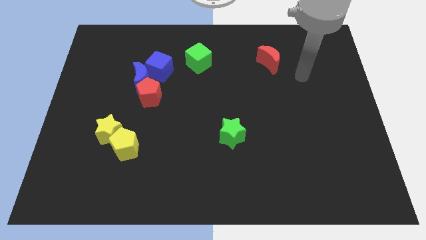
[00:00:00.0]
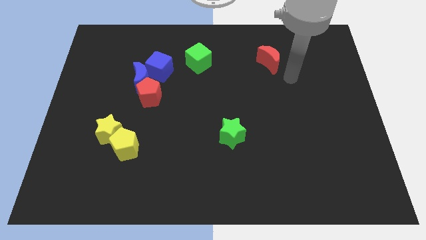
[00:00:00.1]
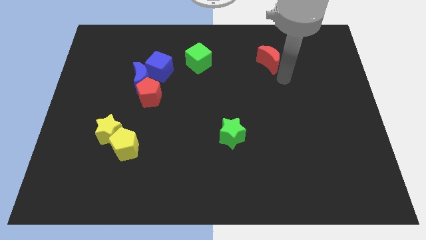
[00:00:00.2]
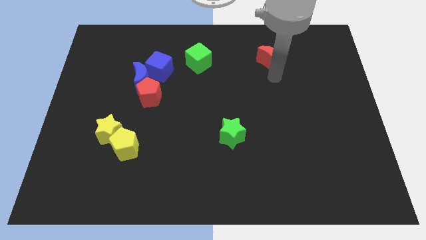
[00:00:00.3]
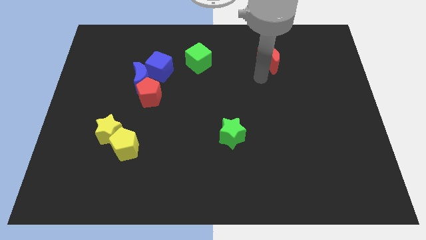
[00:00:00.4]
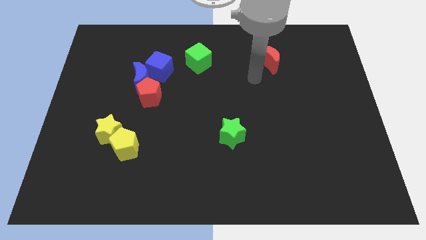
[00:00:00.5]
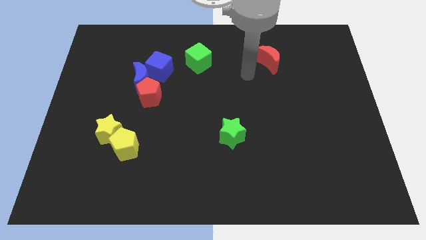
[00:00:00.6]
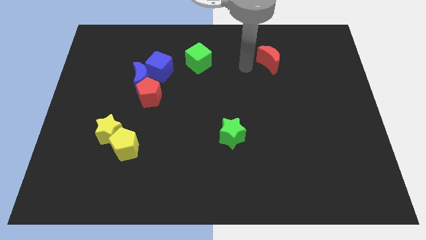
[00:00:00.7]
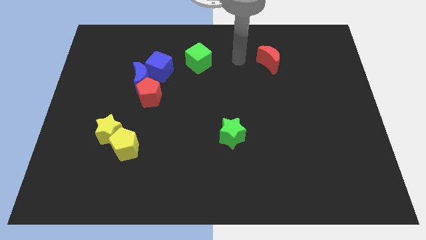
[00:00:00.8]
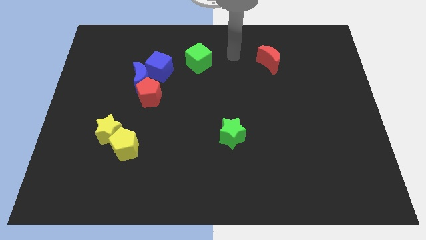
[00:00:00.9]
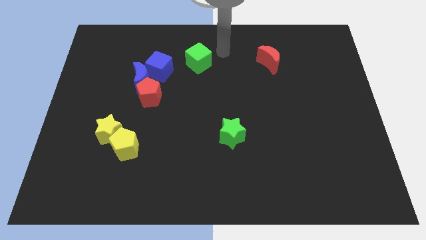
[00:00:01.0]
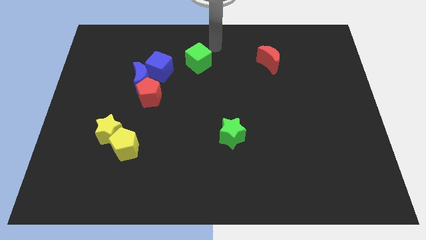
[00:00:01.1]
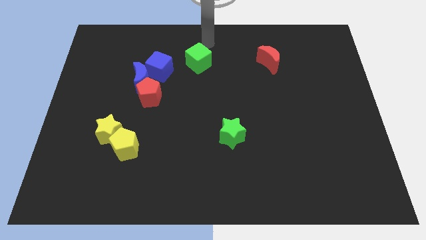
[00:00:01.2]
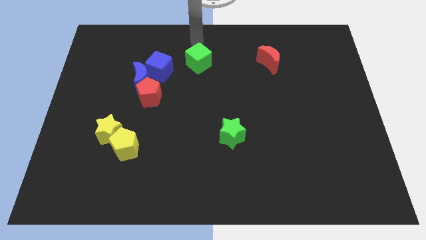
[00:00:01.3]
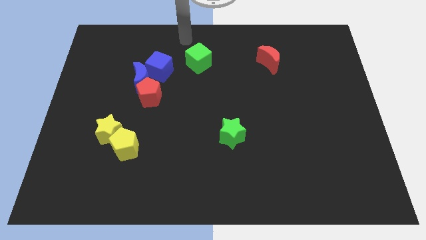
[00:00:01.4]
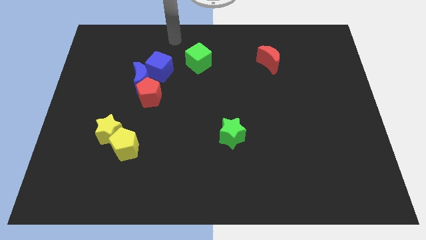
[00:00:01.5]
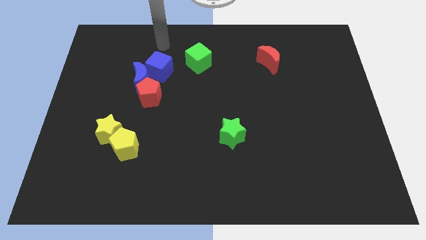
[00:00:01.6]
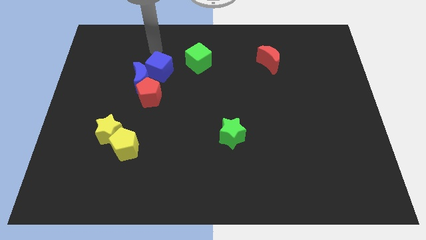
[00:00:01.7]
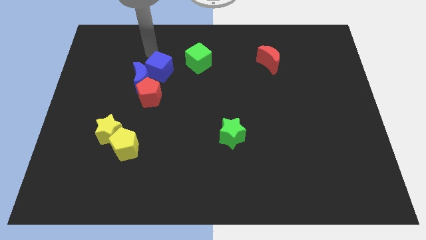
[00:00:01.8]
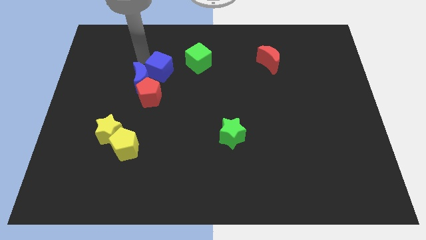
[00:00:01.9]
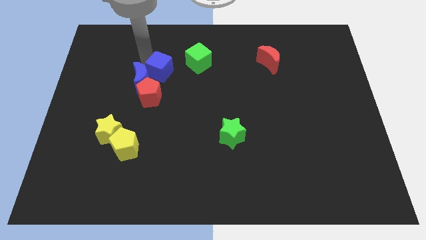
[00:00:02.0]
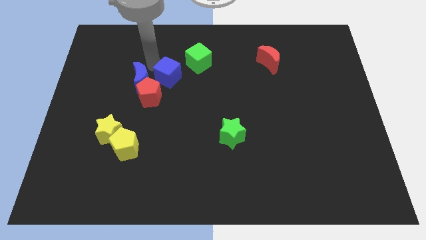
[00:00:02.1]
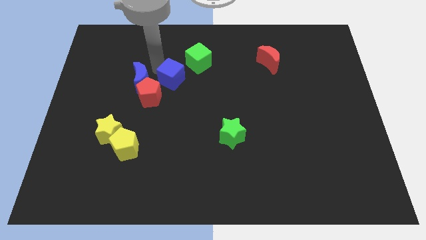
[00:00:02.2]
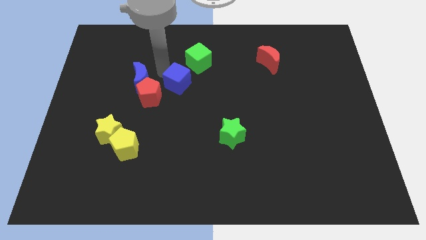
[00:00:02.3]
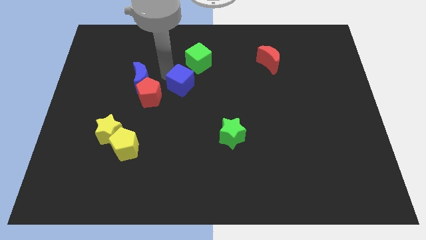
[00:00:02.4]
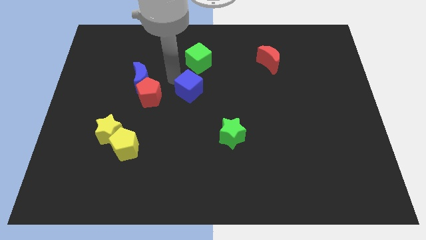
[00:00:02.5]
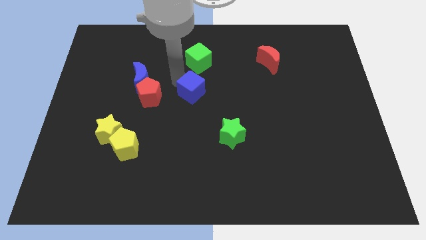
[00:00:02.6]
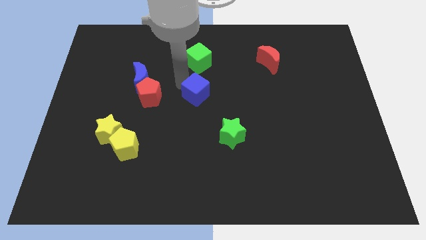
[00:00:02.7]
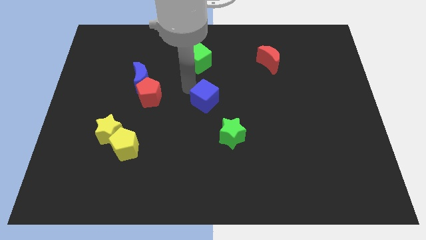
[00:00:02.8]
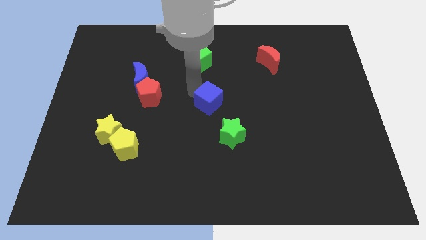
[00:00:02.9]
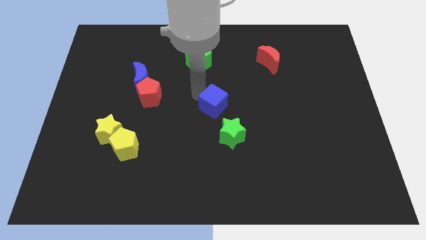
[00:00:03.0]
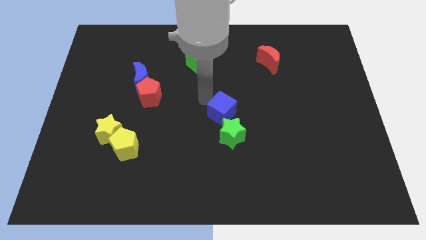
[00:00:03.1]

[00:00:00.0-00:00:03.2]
move the blue cube downwards and to the right

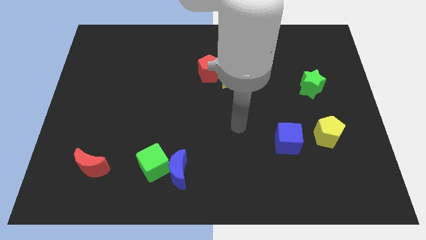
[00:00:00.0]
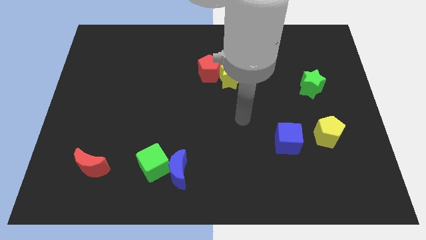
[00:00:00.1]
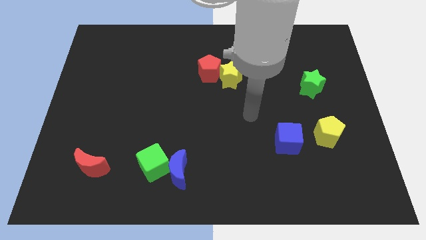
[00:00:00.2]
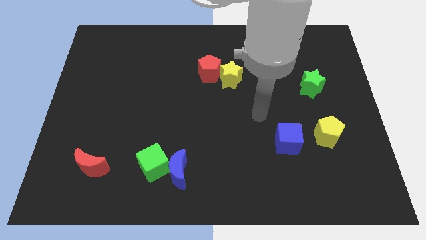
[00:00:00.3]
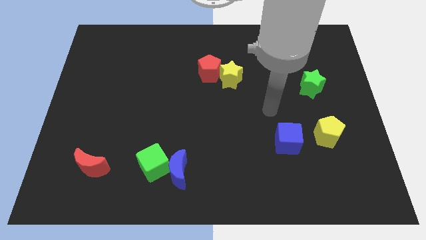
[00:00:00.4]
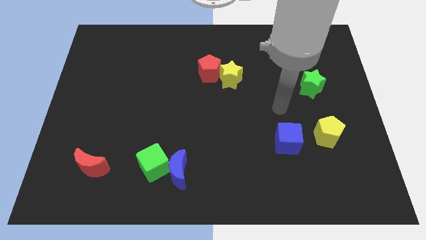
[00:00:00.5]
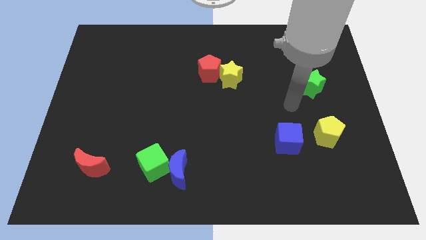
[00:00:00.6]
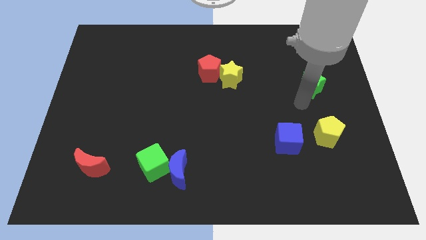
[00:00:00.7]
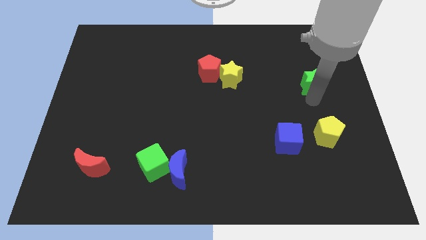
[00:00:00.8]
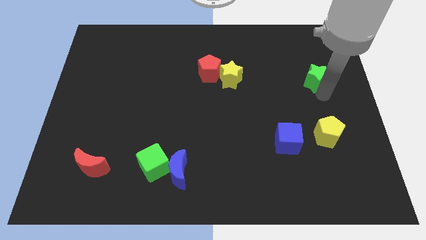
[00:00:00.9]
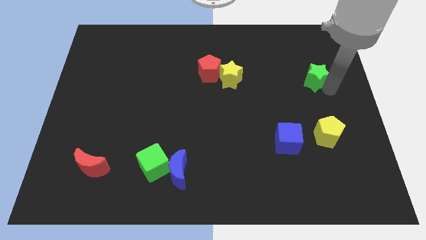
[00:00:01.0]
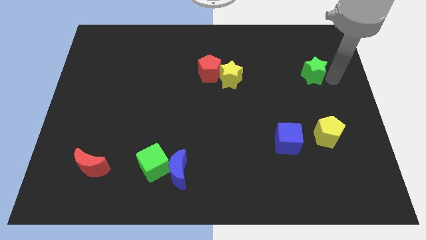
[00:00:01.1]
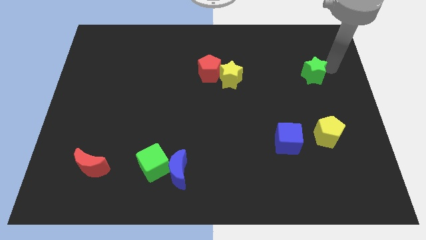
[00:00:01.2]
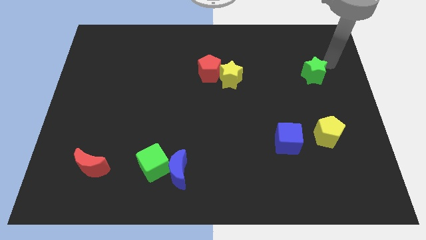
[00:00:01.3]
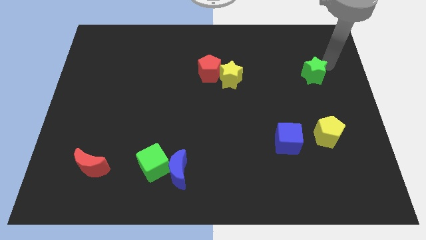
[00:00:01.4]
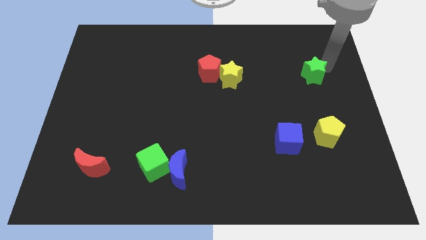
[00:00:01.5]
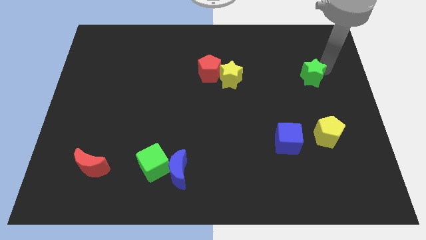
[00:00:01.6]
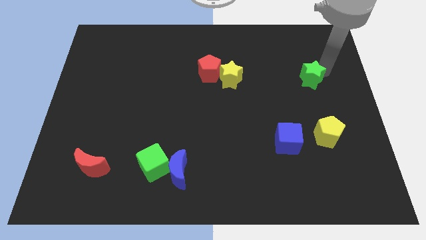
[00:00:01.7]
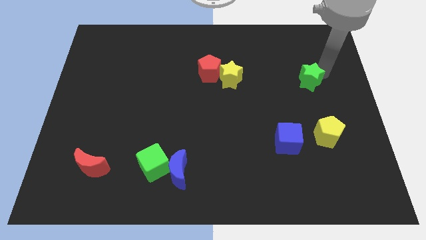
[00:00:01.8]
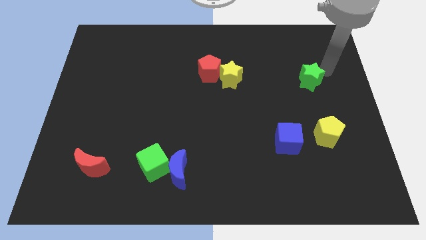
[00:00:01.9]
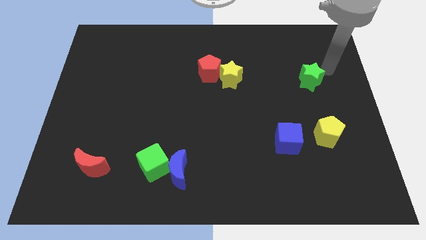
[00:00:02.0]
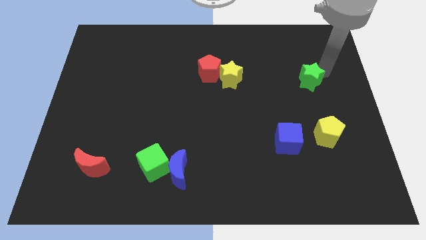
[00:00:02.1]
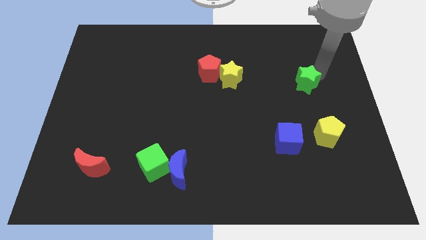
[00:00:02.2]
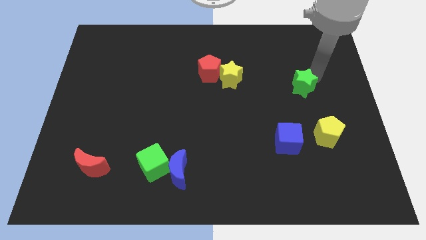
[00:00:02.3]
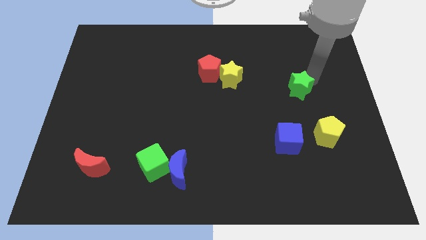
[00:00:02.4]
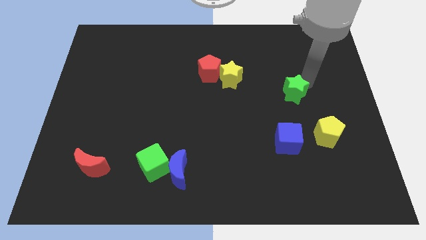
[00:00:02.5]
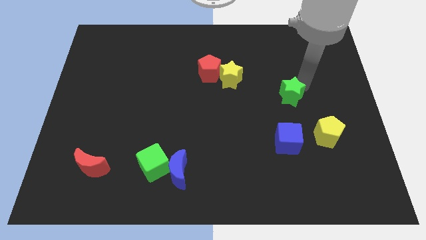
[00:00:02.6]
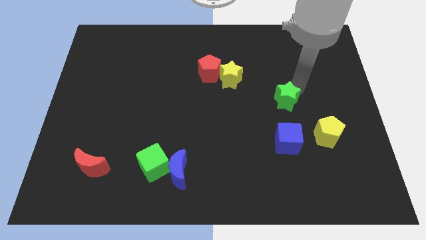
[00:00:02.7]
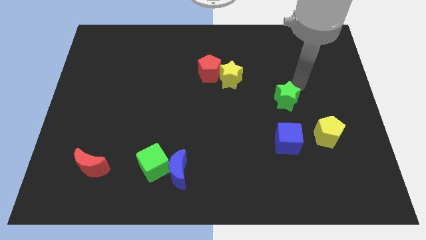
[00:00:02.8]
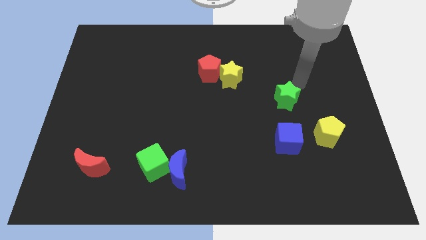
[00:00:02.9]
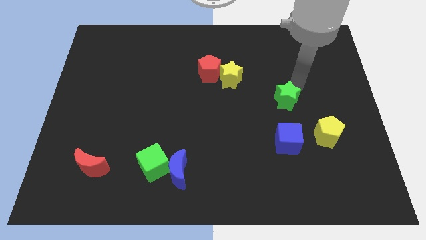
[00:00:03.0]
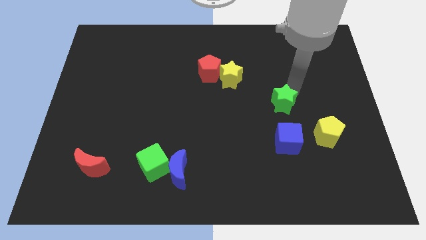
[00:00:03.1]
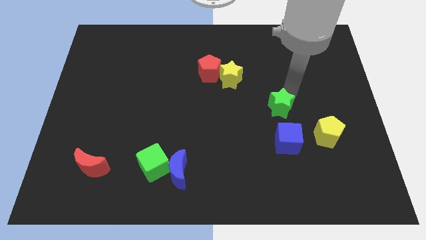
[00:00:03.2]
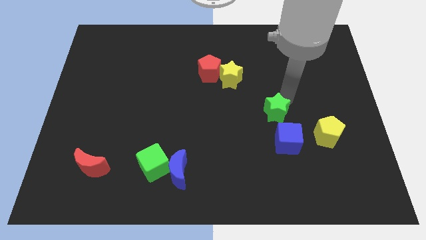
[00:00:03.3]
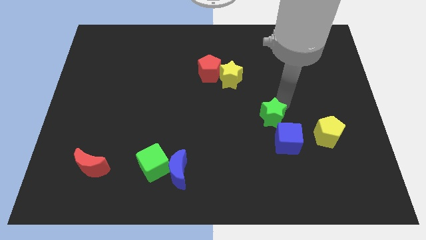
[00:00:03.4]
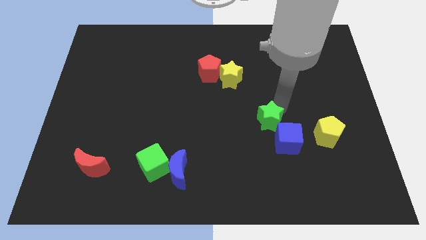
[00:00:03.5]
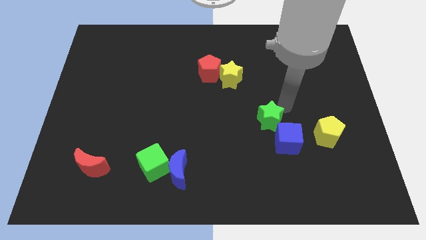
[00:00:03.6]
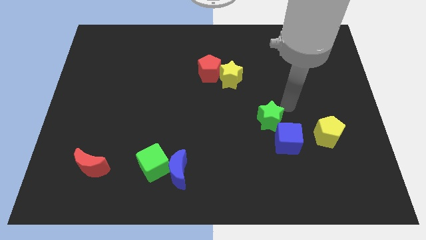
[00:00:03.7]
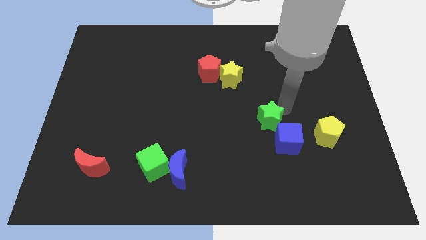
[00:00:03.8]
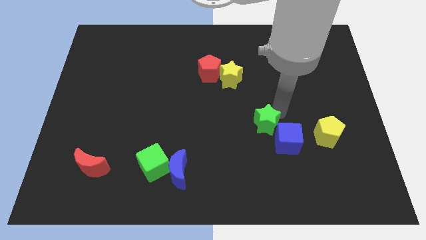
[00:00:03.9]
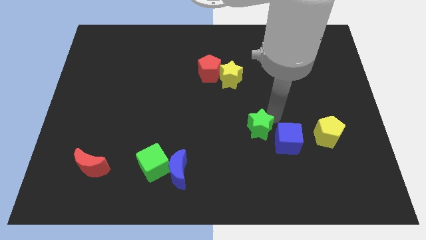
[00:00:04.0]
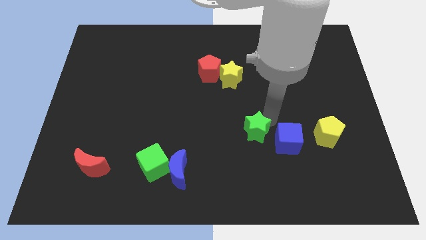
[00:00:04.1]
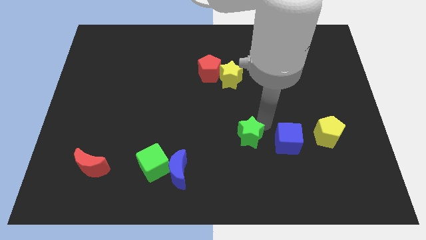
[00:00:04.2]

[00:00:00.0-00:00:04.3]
move the green star down and to the left

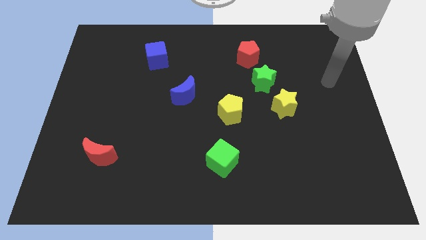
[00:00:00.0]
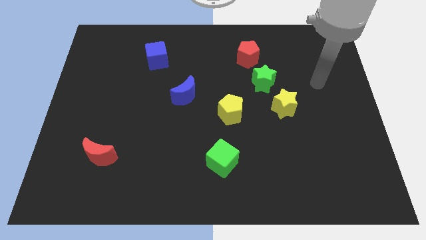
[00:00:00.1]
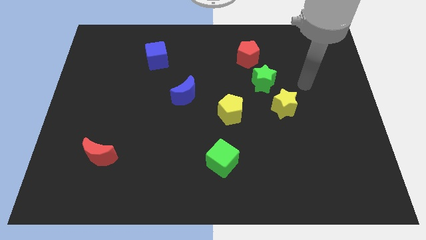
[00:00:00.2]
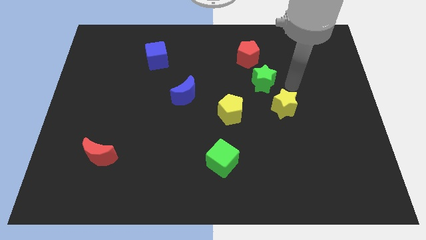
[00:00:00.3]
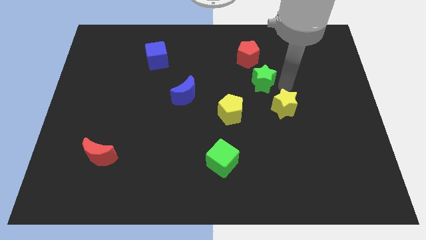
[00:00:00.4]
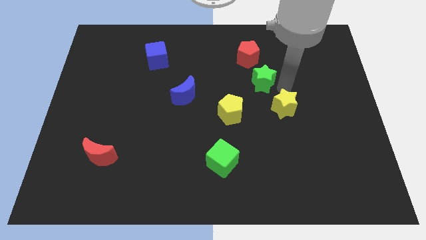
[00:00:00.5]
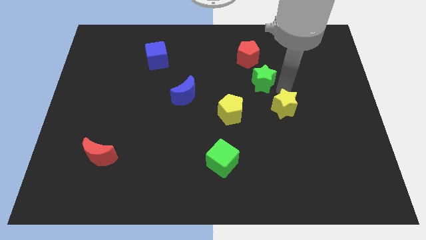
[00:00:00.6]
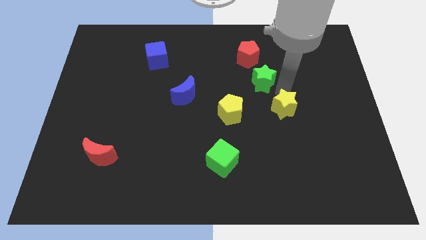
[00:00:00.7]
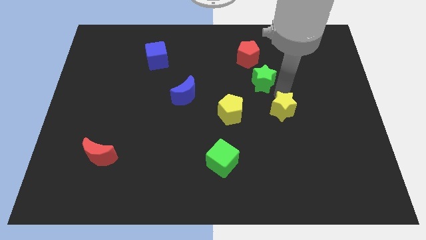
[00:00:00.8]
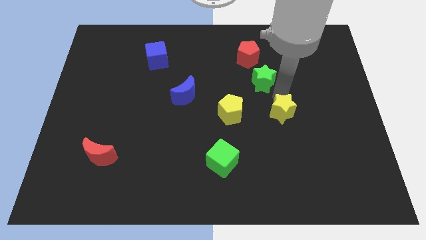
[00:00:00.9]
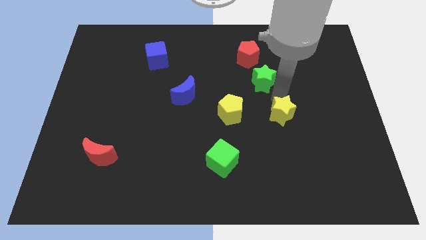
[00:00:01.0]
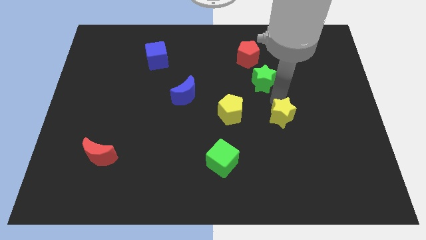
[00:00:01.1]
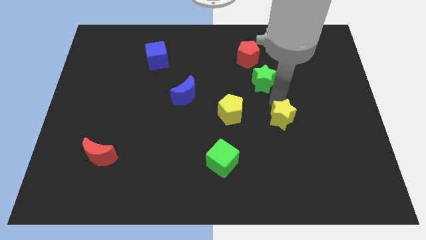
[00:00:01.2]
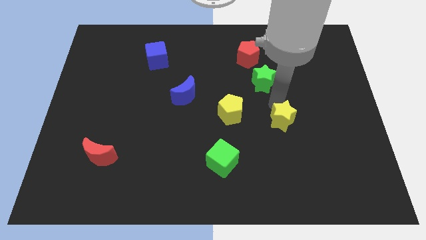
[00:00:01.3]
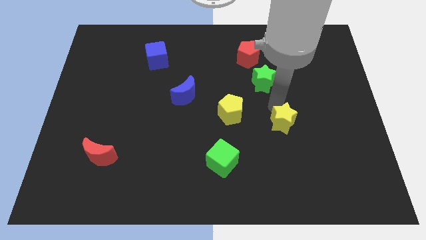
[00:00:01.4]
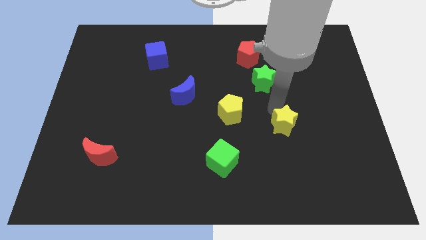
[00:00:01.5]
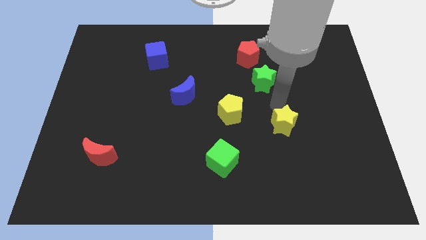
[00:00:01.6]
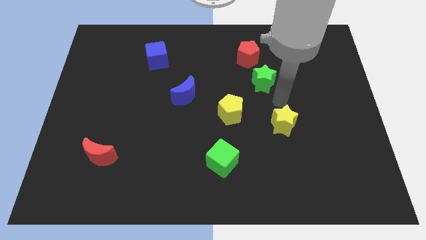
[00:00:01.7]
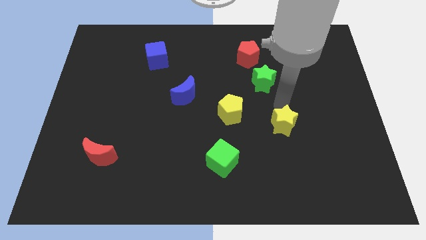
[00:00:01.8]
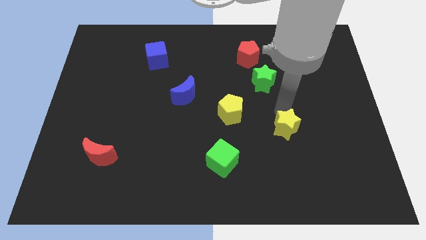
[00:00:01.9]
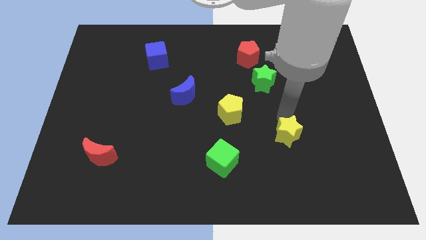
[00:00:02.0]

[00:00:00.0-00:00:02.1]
push the yellow star downwards somewhat
